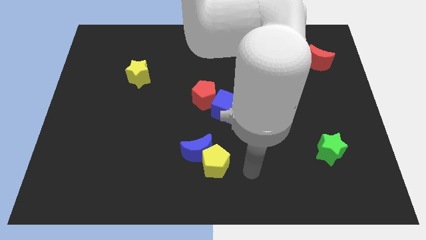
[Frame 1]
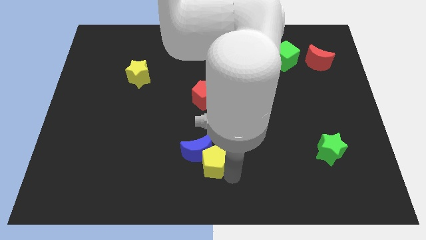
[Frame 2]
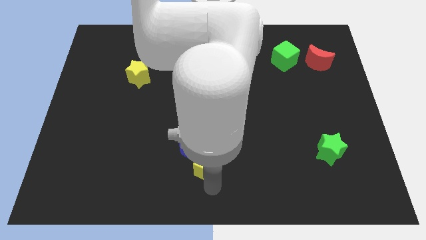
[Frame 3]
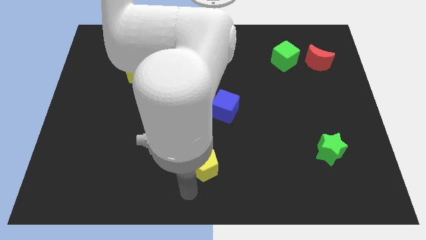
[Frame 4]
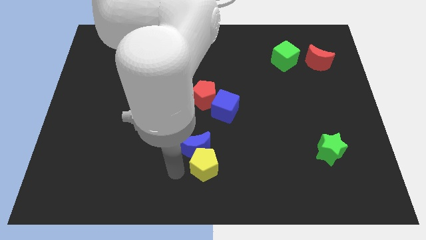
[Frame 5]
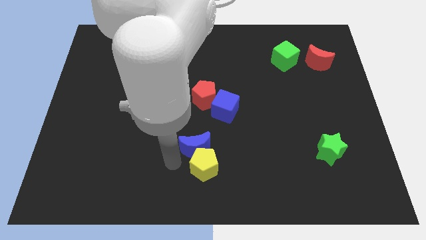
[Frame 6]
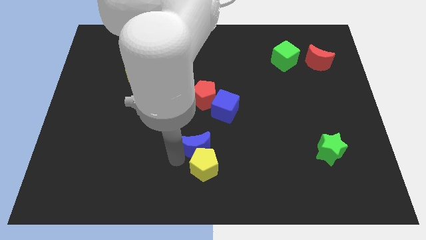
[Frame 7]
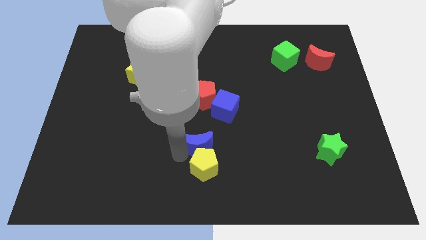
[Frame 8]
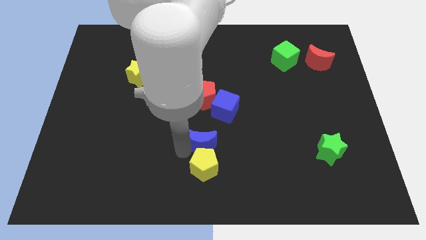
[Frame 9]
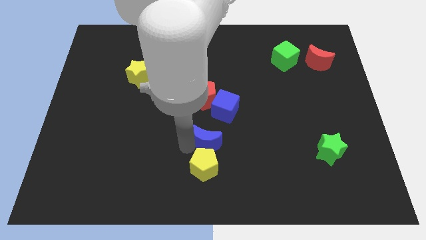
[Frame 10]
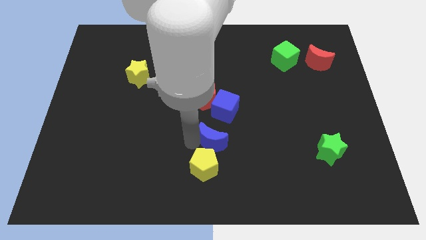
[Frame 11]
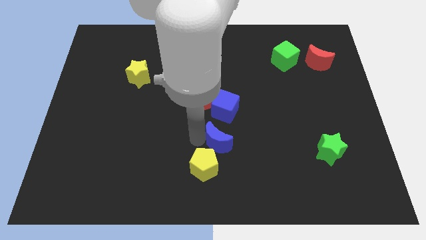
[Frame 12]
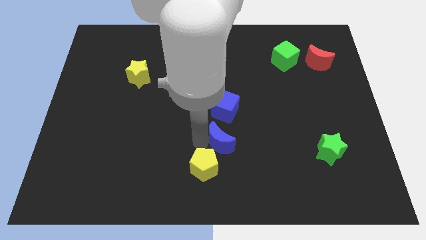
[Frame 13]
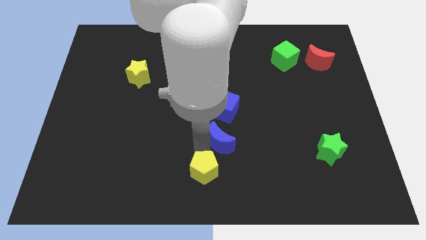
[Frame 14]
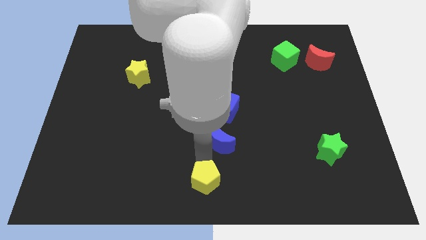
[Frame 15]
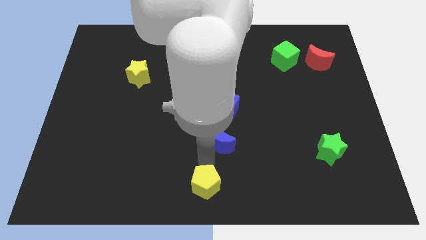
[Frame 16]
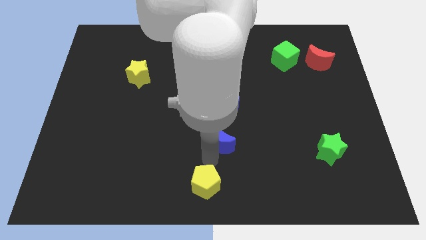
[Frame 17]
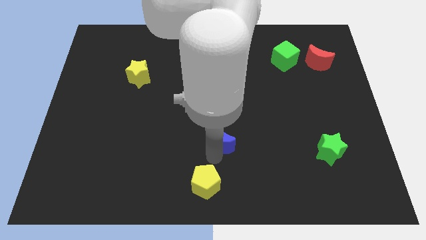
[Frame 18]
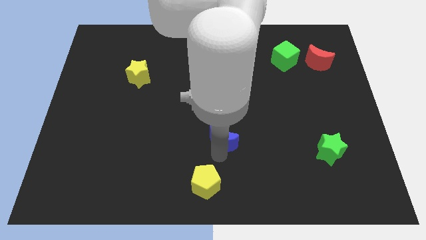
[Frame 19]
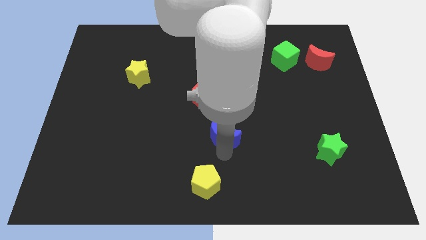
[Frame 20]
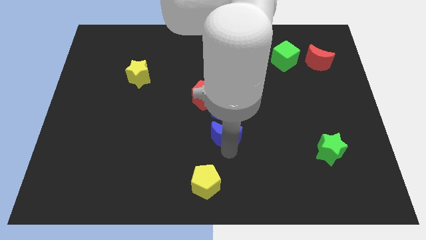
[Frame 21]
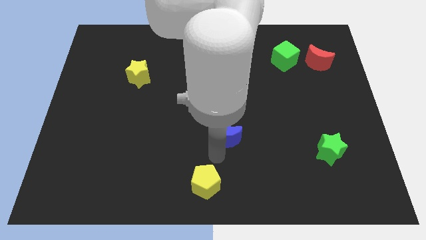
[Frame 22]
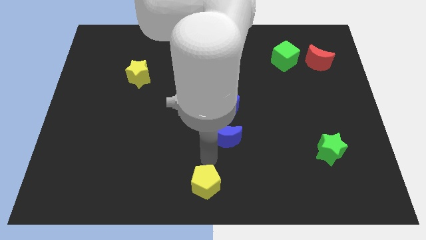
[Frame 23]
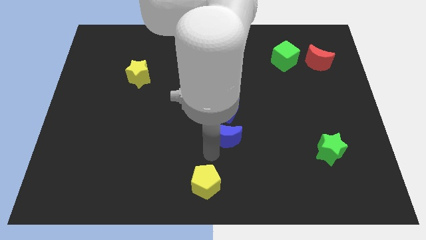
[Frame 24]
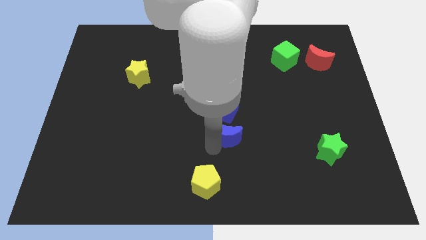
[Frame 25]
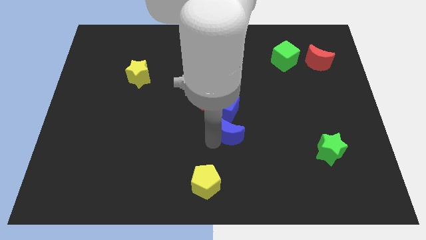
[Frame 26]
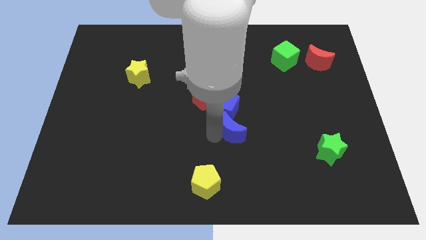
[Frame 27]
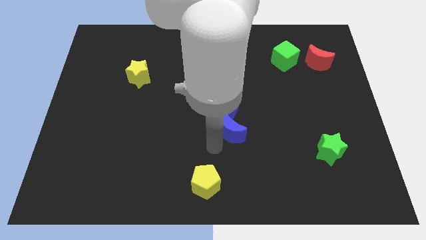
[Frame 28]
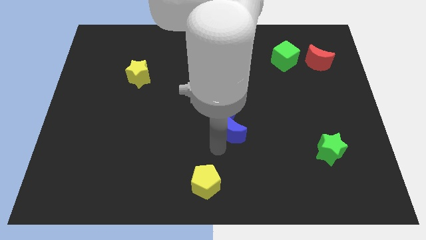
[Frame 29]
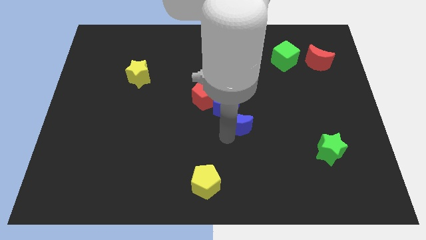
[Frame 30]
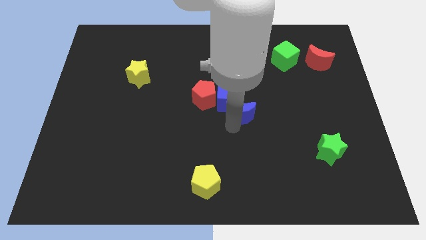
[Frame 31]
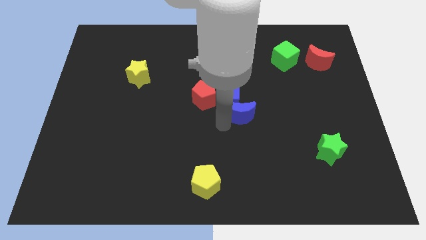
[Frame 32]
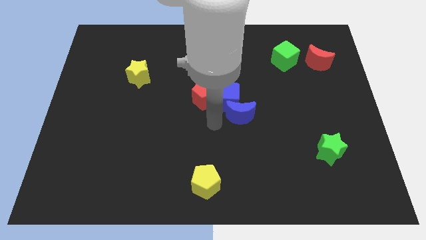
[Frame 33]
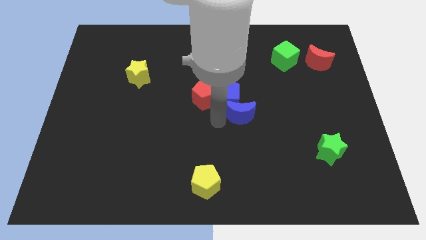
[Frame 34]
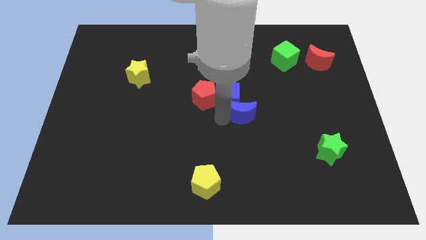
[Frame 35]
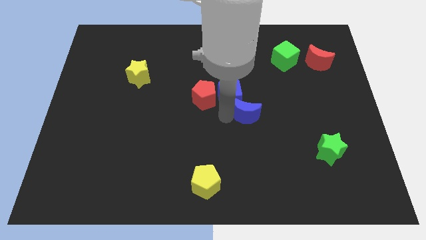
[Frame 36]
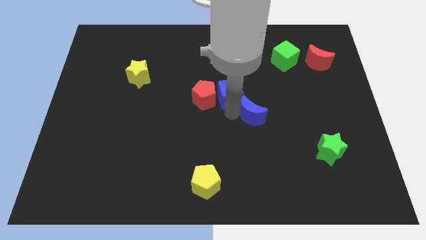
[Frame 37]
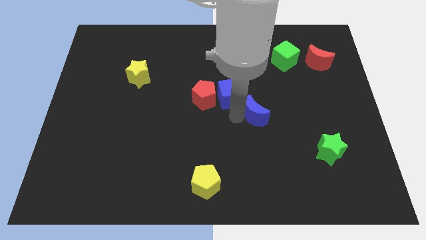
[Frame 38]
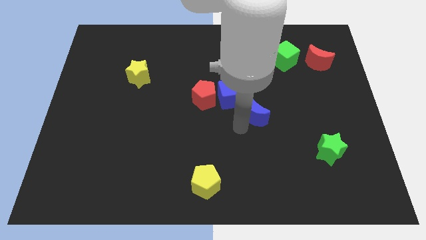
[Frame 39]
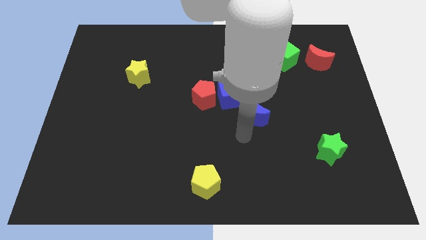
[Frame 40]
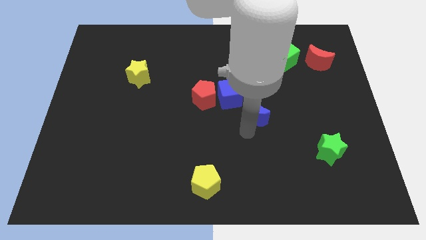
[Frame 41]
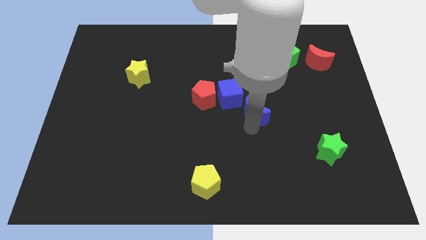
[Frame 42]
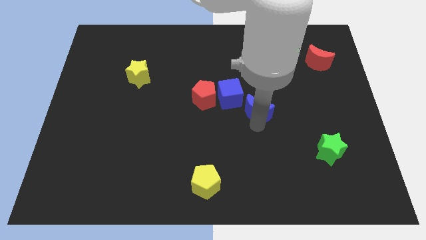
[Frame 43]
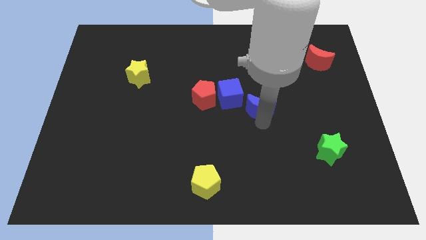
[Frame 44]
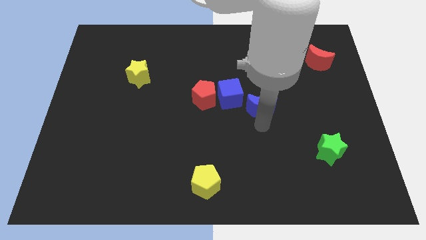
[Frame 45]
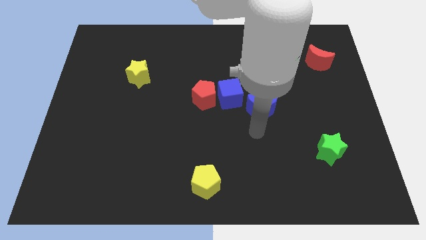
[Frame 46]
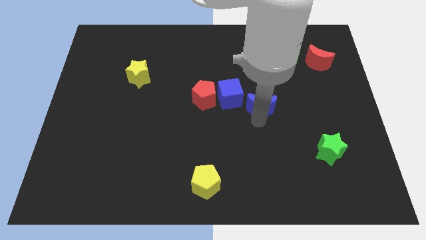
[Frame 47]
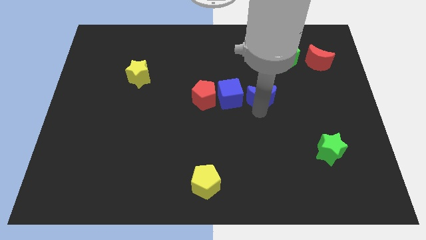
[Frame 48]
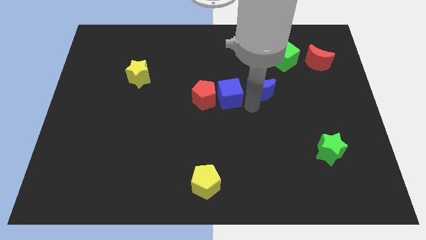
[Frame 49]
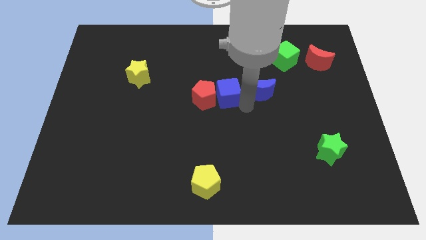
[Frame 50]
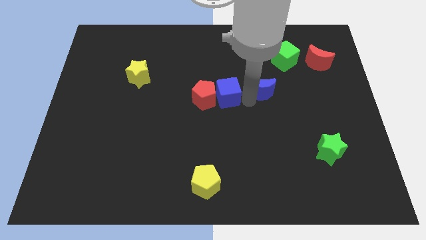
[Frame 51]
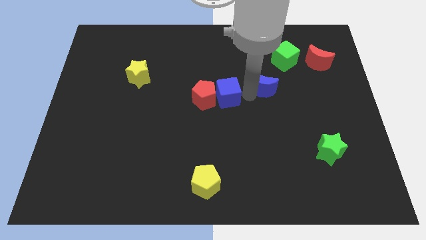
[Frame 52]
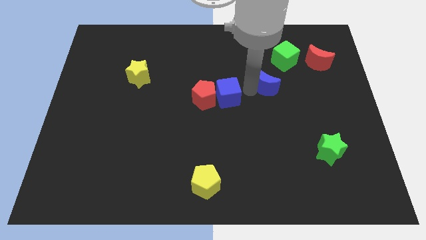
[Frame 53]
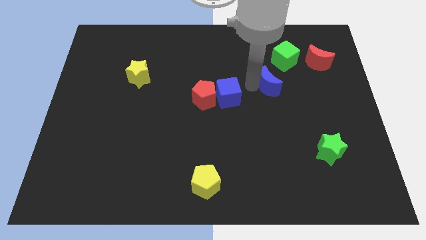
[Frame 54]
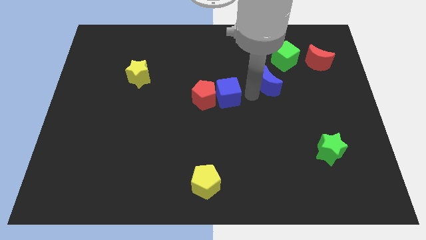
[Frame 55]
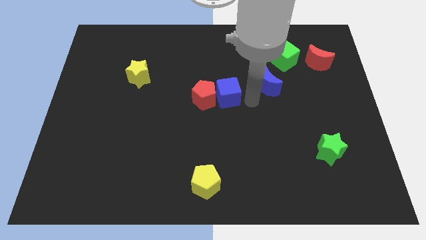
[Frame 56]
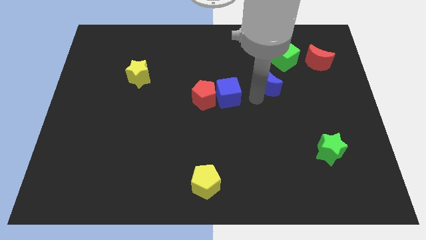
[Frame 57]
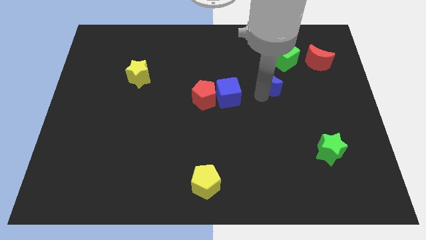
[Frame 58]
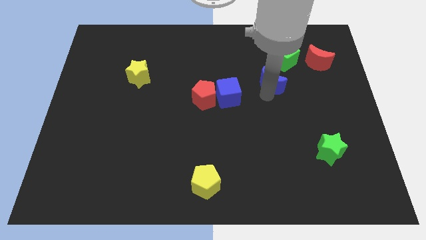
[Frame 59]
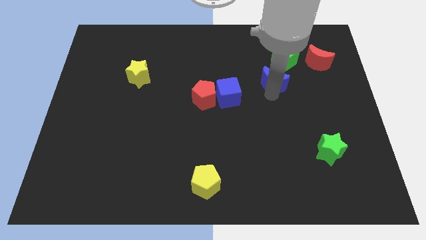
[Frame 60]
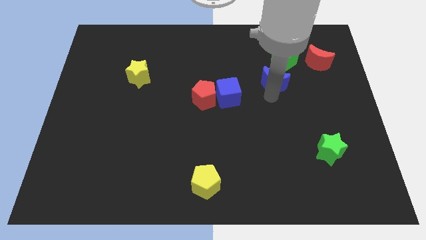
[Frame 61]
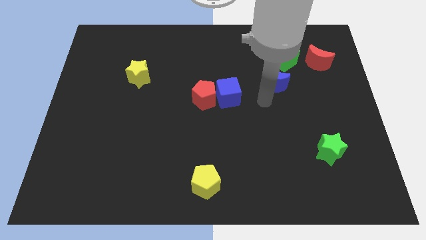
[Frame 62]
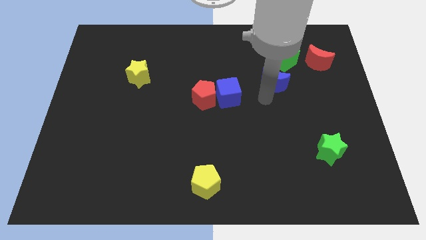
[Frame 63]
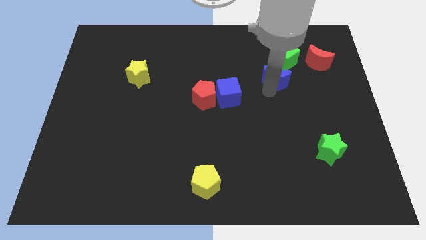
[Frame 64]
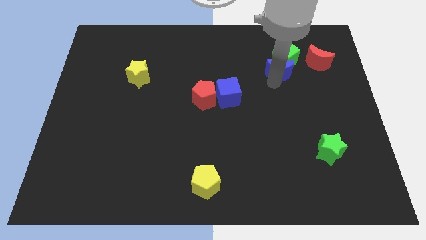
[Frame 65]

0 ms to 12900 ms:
slide the blue moon next to the green cube

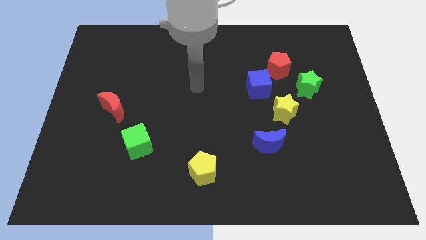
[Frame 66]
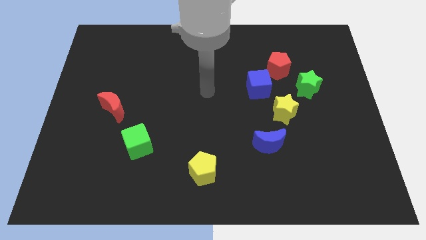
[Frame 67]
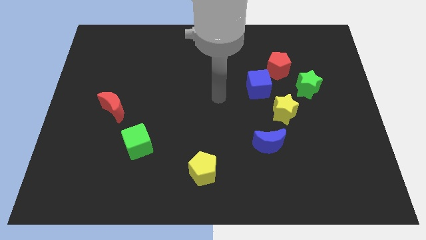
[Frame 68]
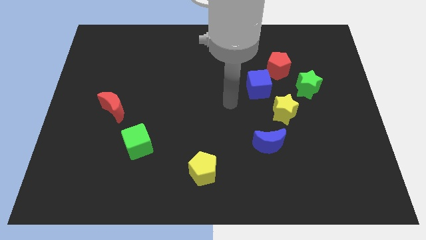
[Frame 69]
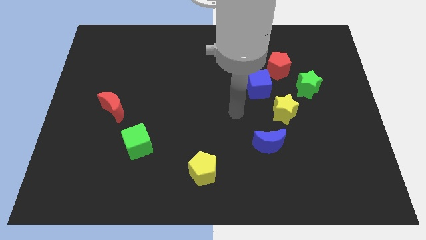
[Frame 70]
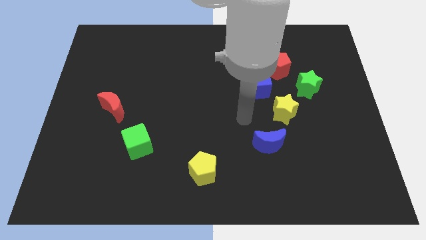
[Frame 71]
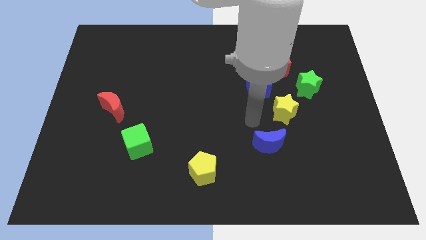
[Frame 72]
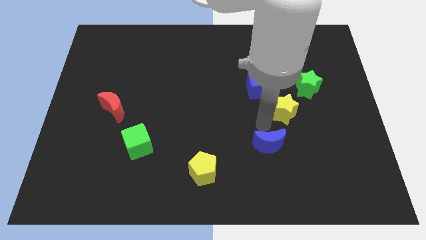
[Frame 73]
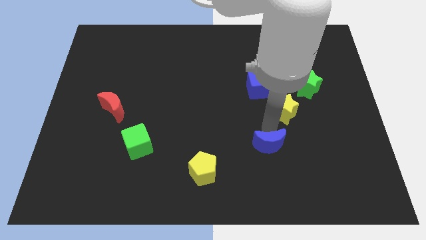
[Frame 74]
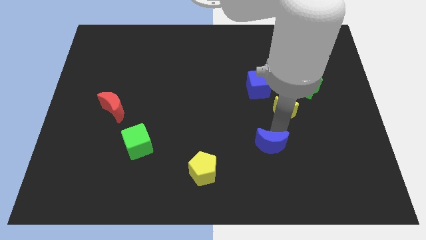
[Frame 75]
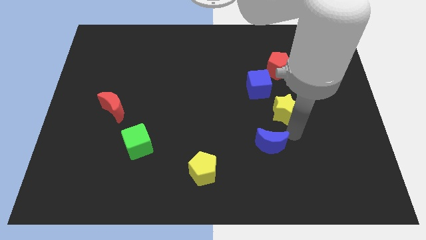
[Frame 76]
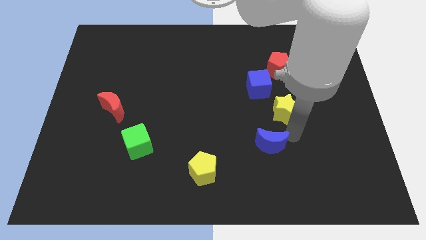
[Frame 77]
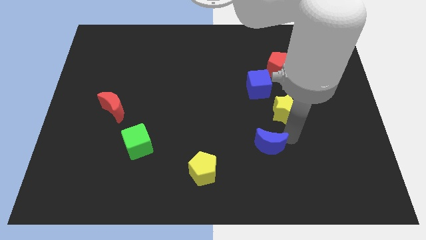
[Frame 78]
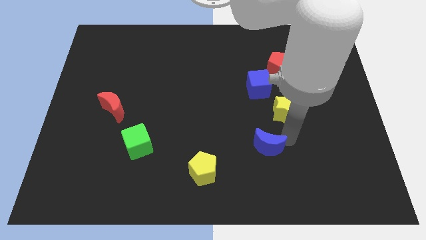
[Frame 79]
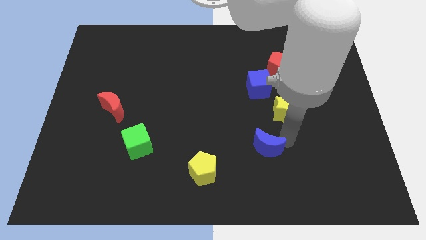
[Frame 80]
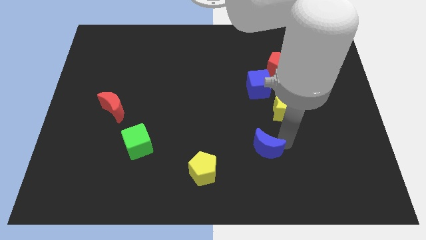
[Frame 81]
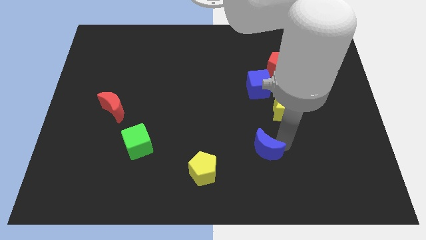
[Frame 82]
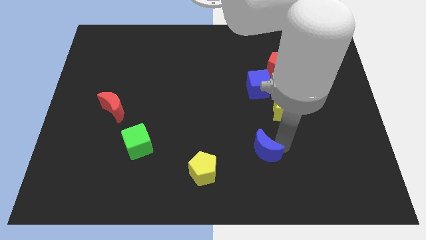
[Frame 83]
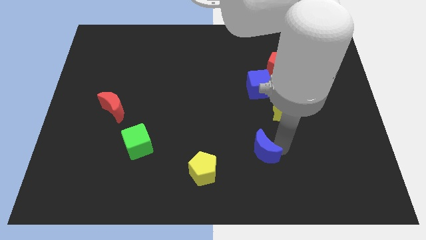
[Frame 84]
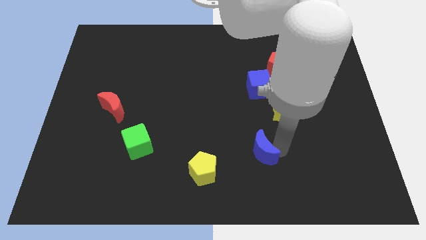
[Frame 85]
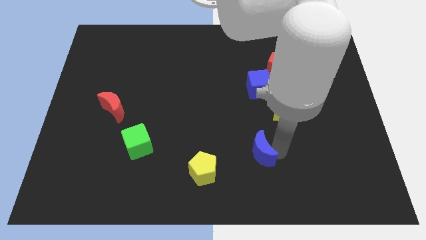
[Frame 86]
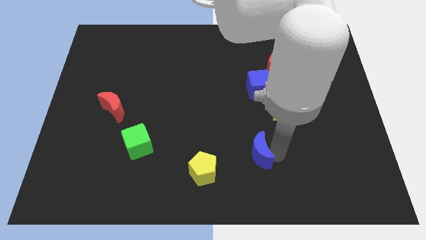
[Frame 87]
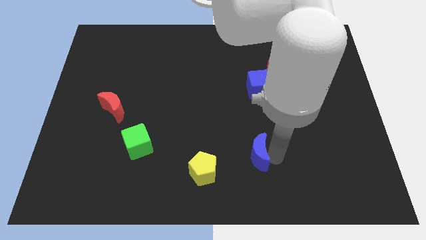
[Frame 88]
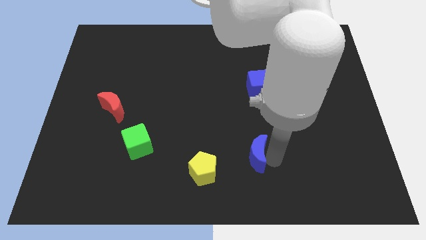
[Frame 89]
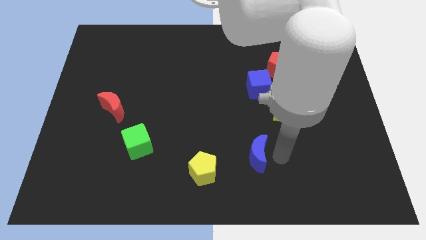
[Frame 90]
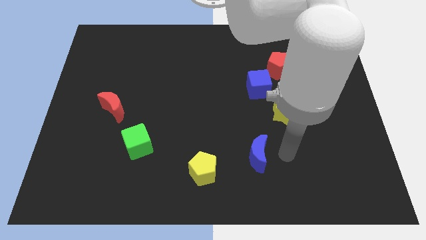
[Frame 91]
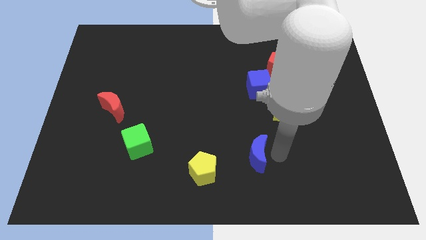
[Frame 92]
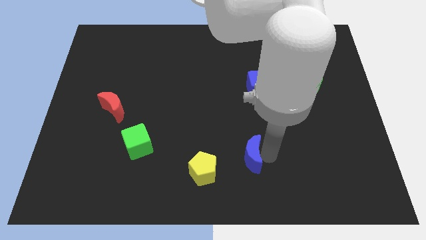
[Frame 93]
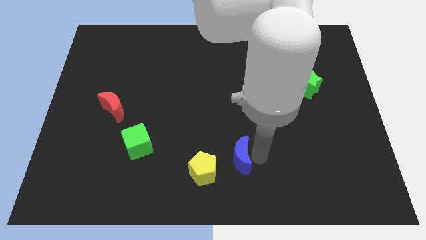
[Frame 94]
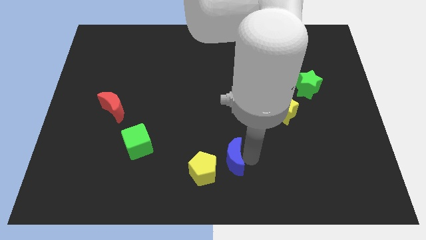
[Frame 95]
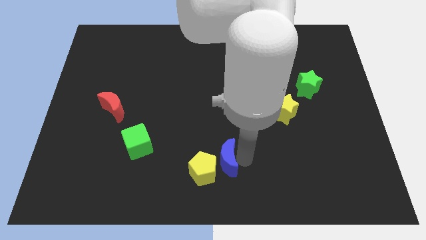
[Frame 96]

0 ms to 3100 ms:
slide the blue moon towards the yellow pentagon
